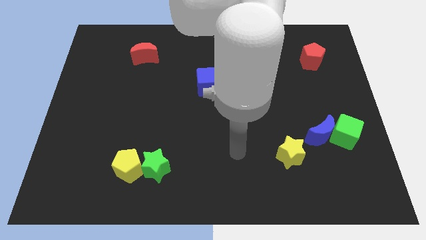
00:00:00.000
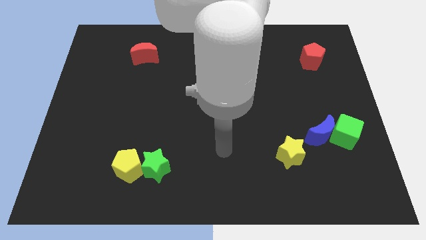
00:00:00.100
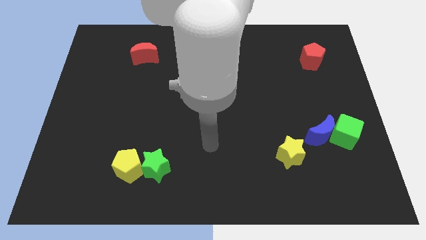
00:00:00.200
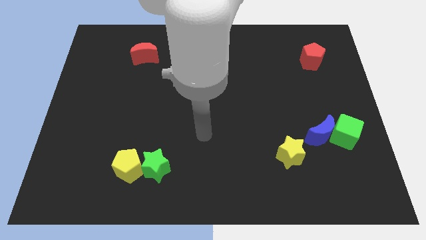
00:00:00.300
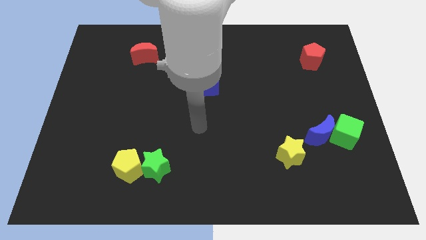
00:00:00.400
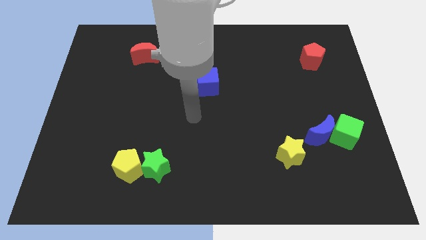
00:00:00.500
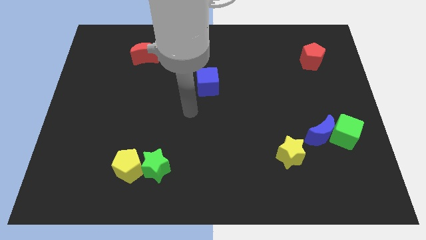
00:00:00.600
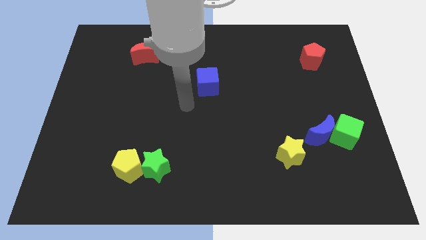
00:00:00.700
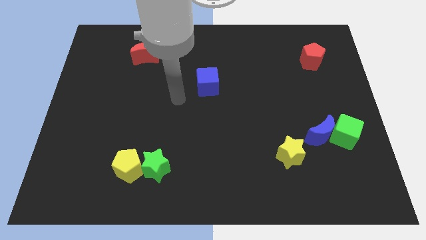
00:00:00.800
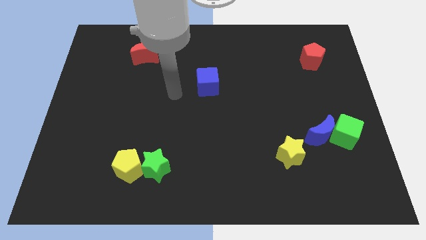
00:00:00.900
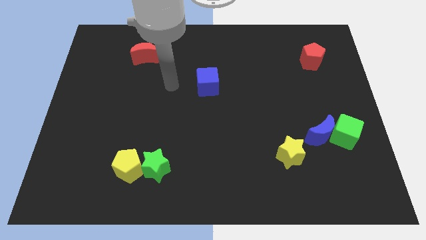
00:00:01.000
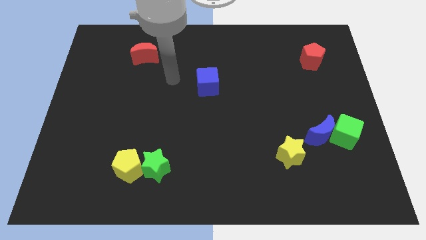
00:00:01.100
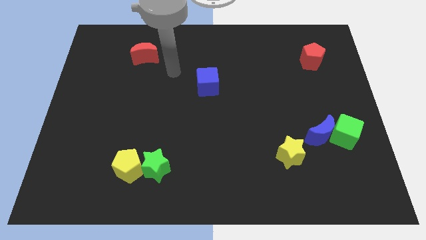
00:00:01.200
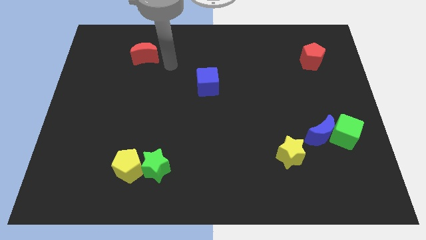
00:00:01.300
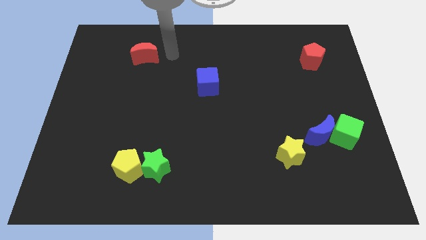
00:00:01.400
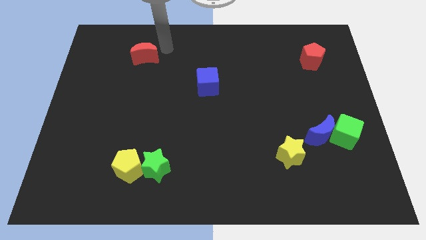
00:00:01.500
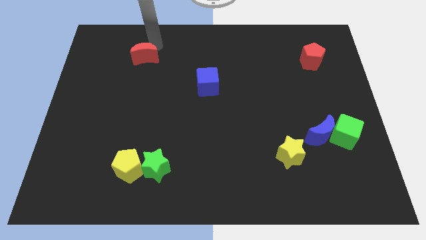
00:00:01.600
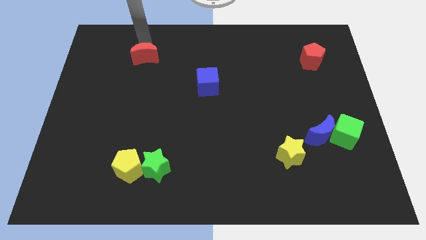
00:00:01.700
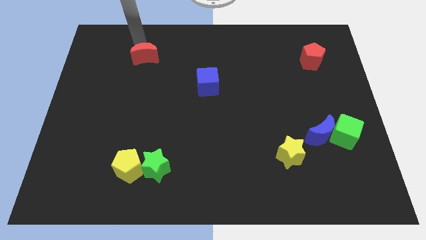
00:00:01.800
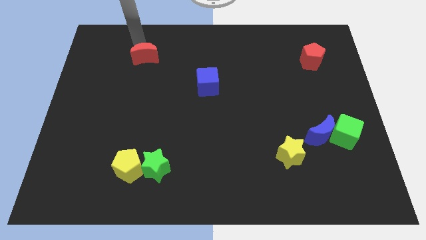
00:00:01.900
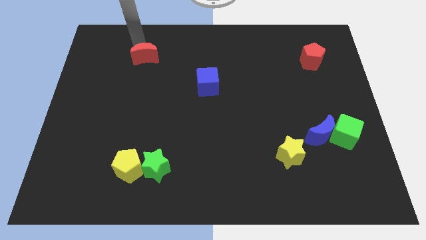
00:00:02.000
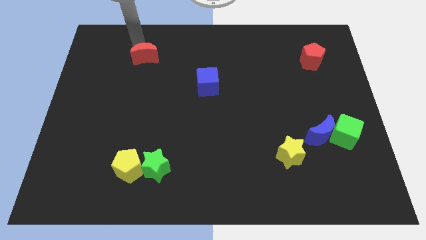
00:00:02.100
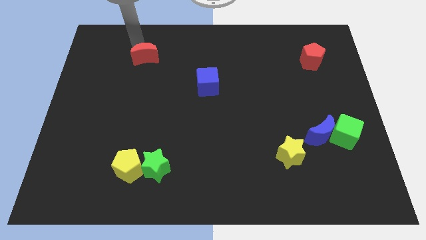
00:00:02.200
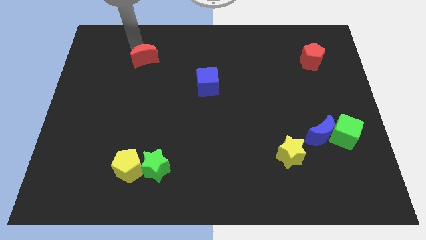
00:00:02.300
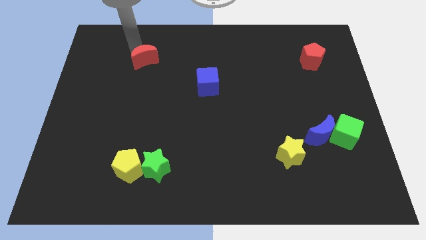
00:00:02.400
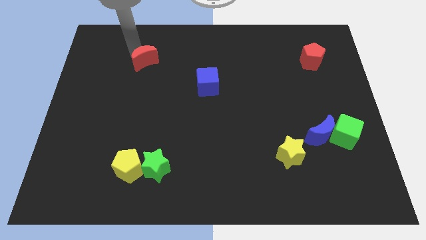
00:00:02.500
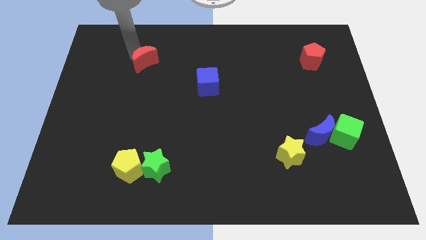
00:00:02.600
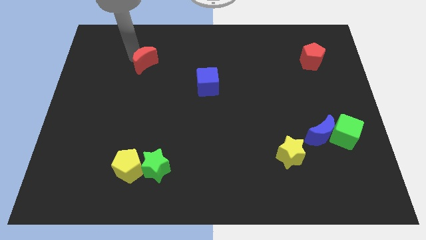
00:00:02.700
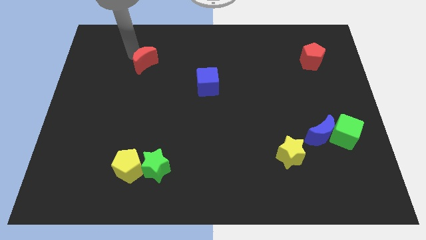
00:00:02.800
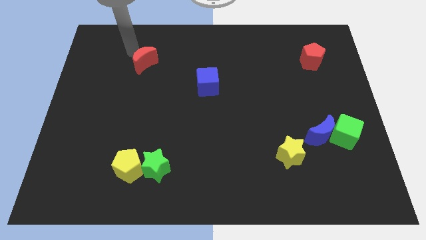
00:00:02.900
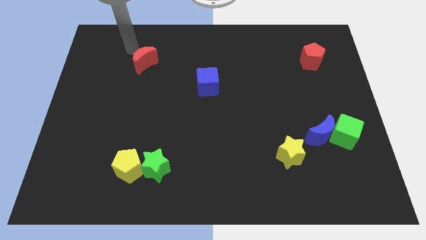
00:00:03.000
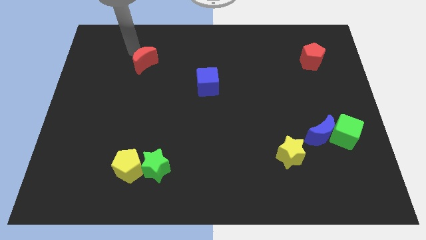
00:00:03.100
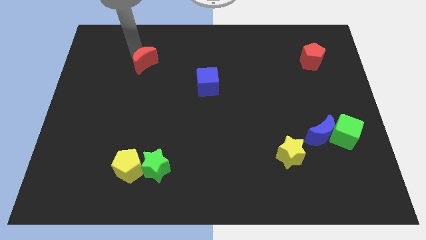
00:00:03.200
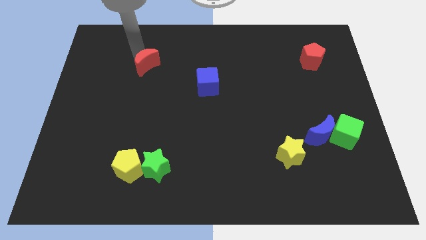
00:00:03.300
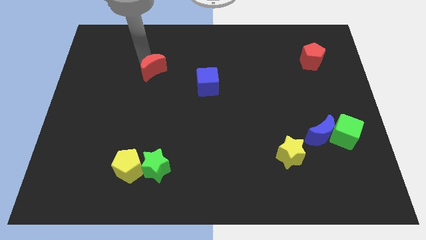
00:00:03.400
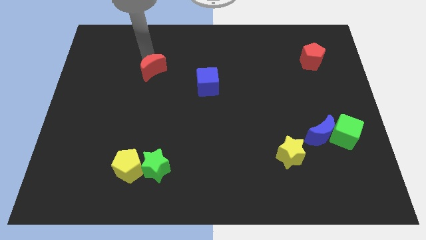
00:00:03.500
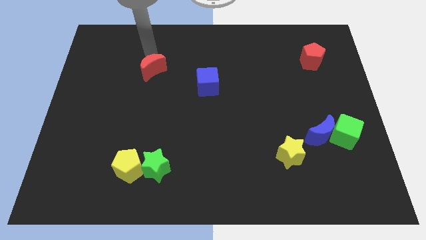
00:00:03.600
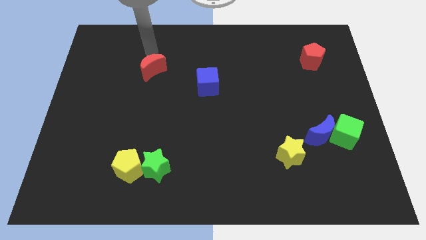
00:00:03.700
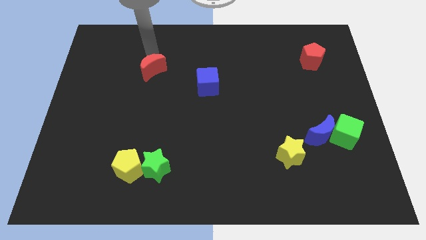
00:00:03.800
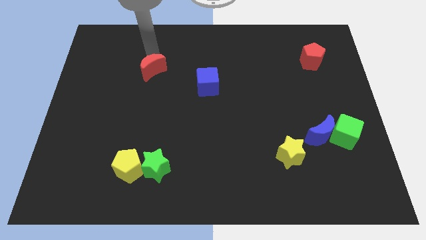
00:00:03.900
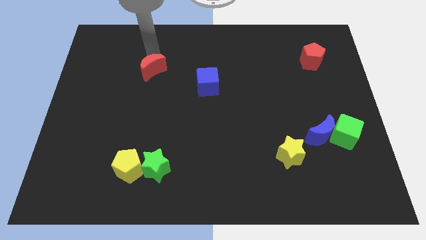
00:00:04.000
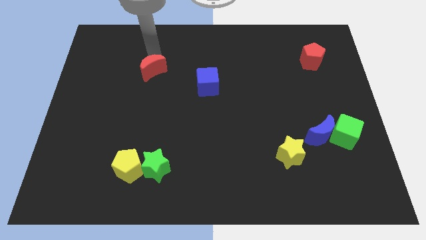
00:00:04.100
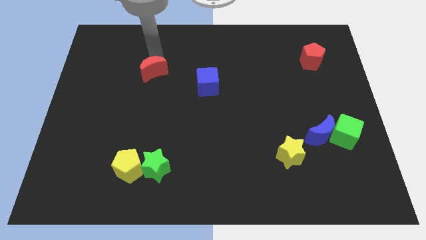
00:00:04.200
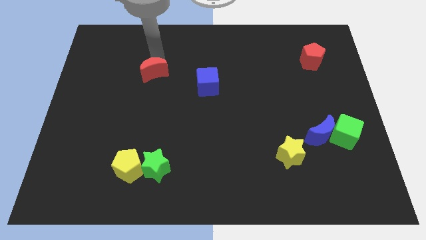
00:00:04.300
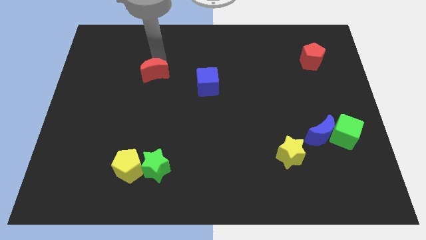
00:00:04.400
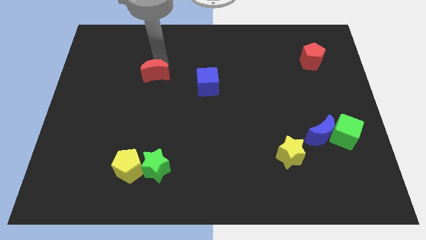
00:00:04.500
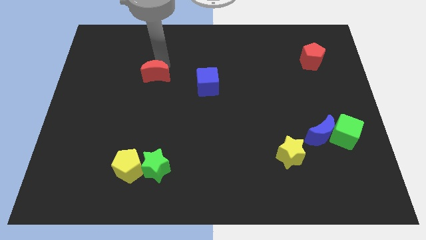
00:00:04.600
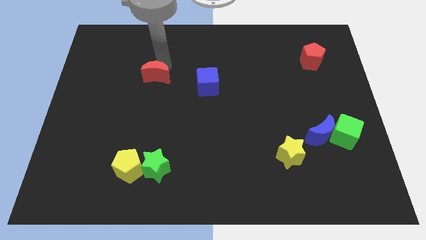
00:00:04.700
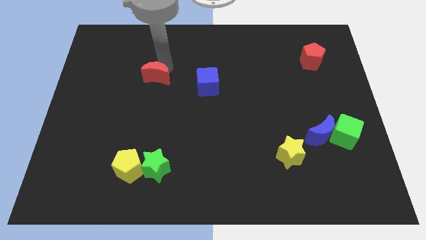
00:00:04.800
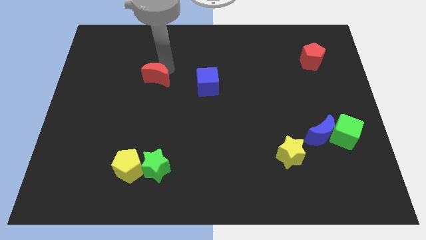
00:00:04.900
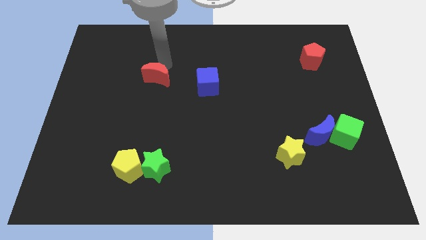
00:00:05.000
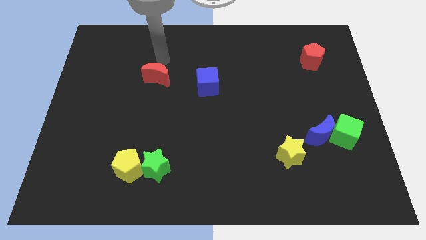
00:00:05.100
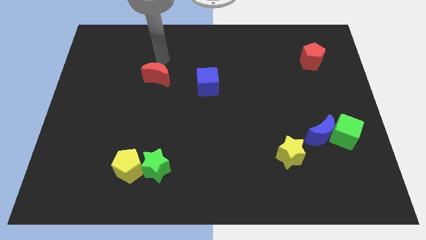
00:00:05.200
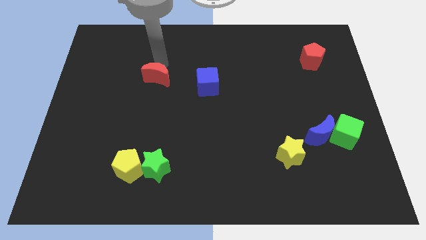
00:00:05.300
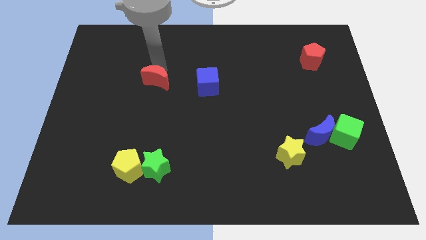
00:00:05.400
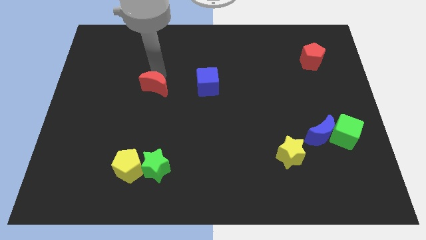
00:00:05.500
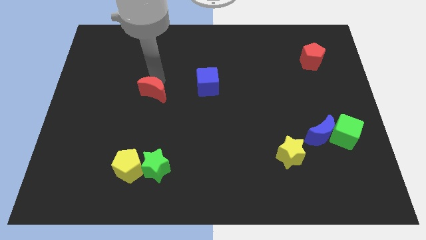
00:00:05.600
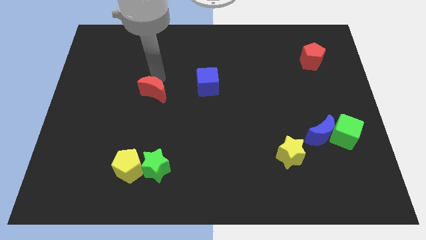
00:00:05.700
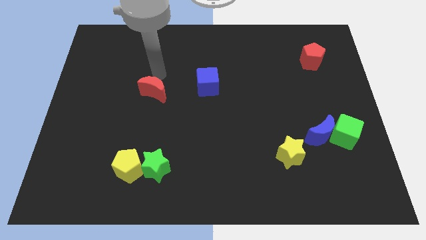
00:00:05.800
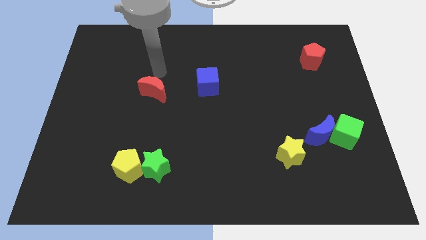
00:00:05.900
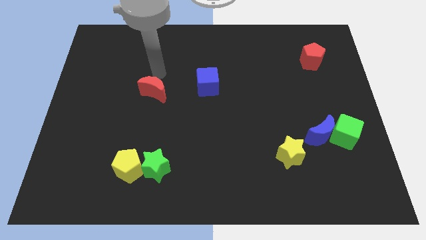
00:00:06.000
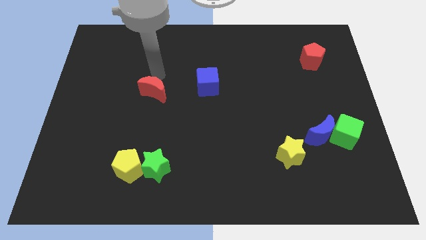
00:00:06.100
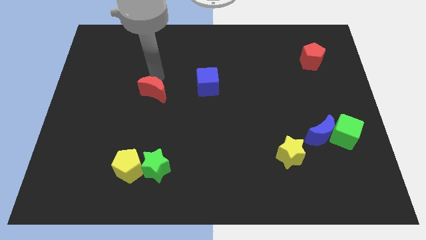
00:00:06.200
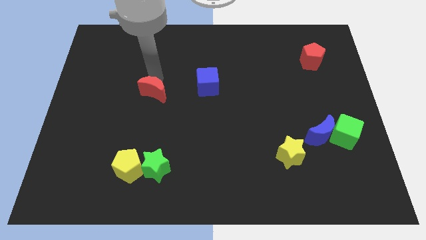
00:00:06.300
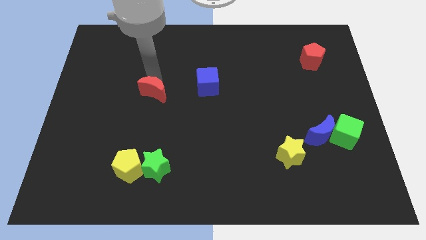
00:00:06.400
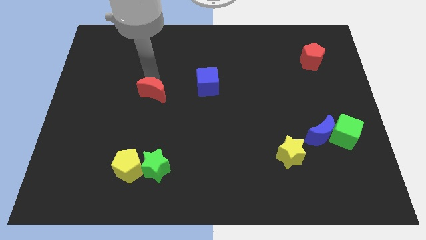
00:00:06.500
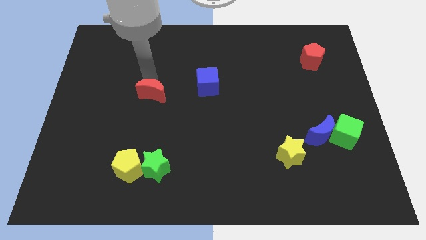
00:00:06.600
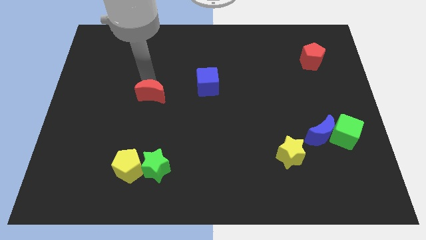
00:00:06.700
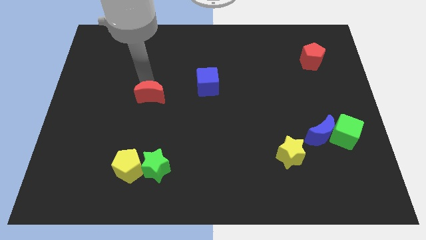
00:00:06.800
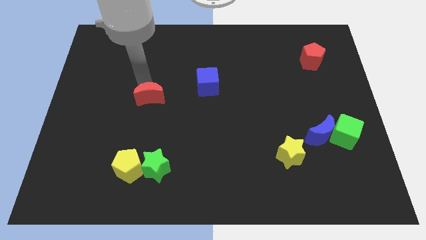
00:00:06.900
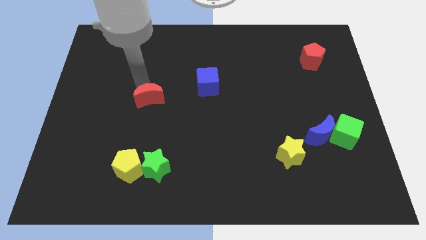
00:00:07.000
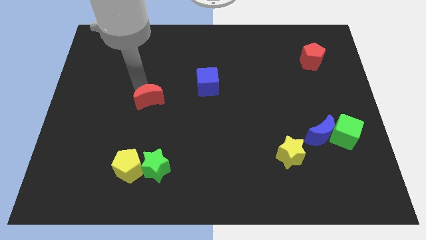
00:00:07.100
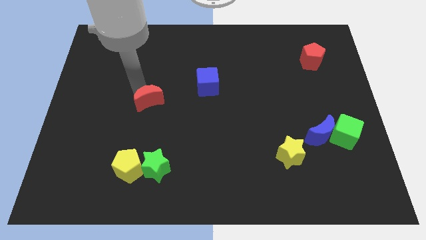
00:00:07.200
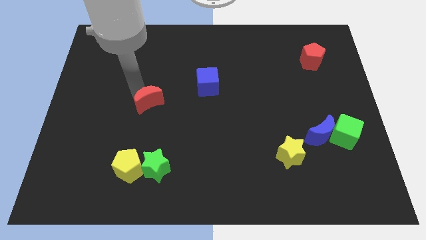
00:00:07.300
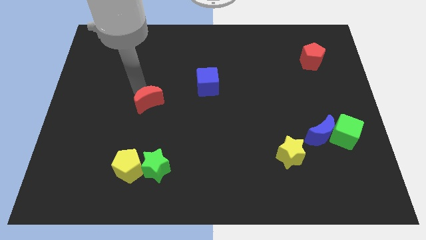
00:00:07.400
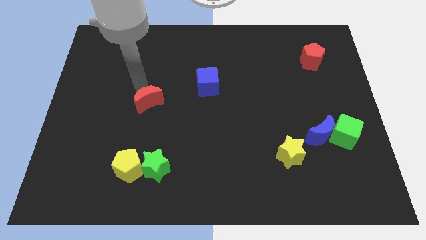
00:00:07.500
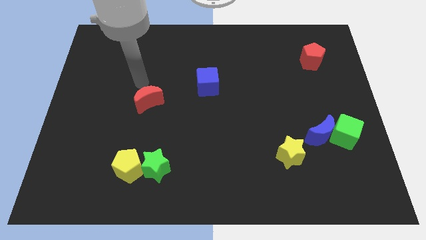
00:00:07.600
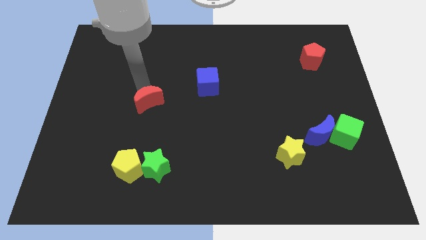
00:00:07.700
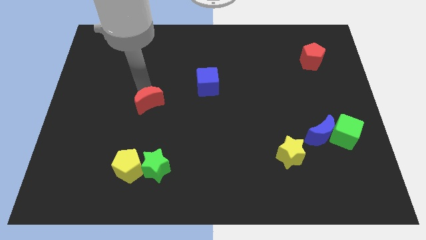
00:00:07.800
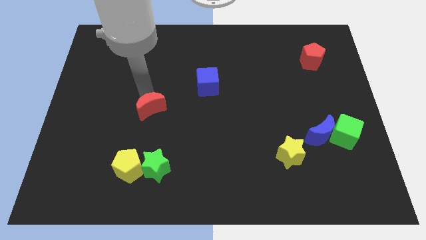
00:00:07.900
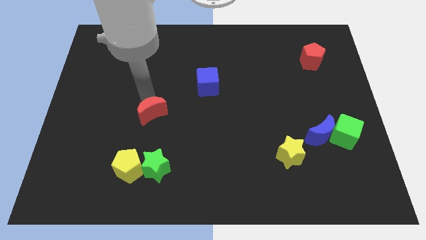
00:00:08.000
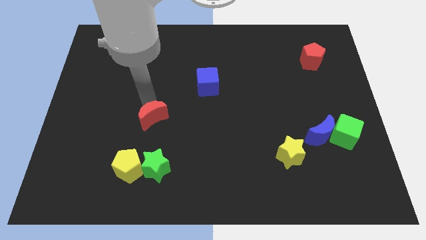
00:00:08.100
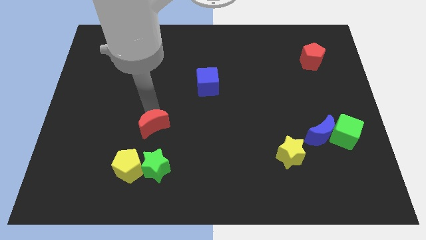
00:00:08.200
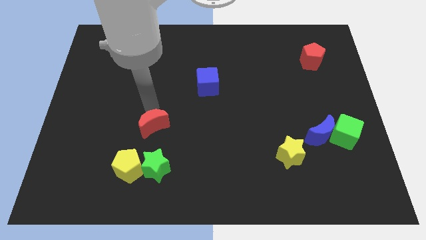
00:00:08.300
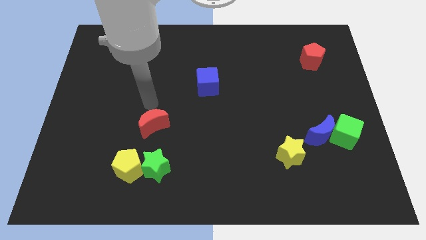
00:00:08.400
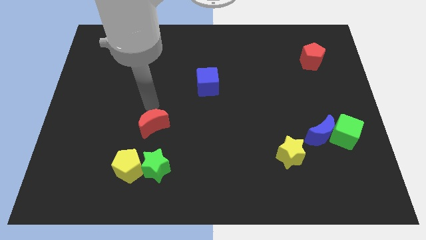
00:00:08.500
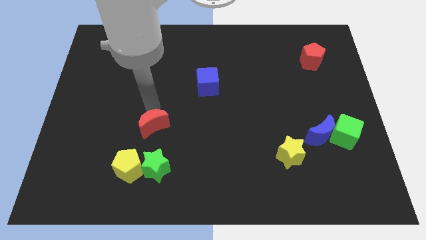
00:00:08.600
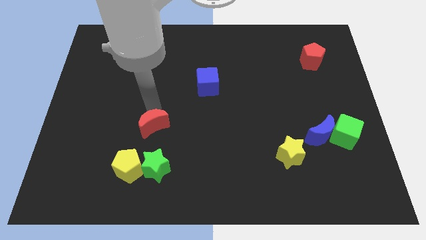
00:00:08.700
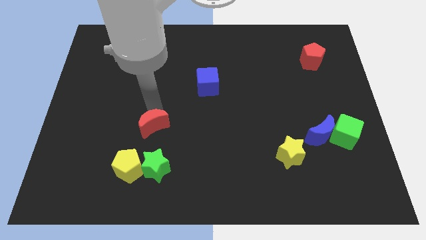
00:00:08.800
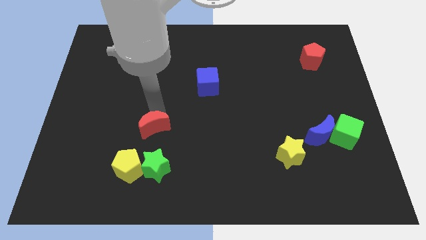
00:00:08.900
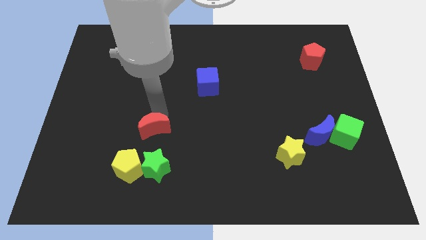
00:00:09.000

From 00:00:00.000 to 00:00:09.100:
slide the red moon diagonally up and to the right of the yellow pentagon
